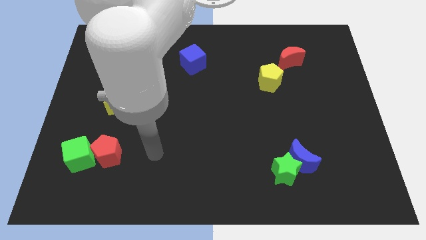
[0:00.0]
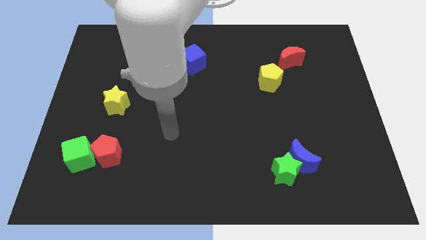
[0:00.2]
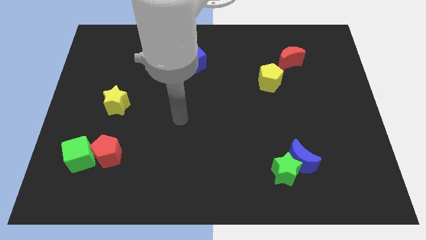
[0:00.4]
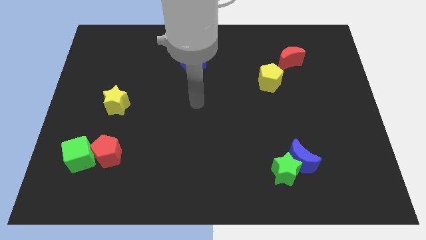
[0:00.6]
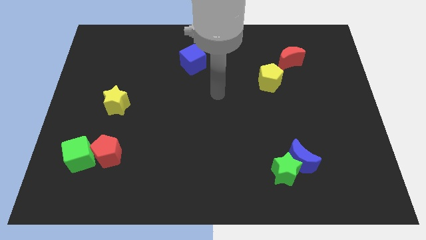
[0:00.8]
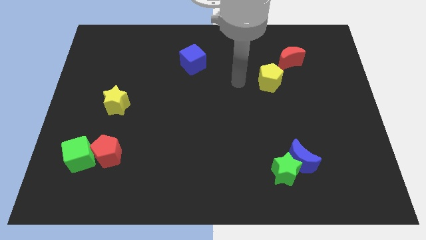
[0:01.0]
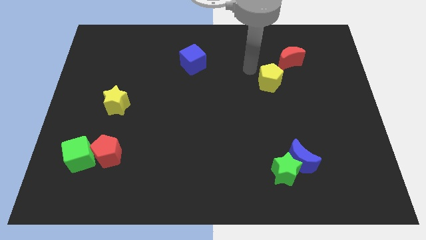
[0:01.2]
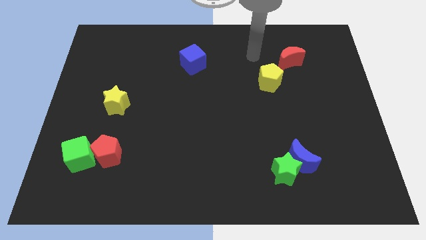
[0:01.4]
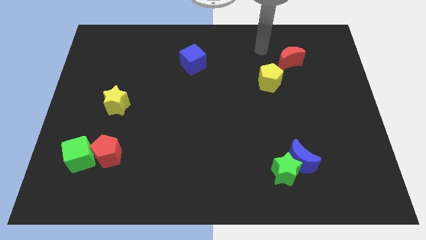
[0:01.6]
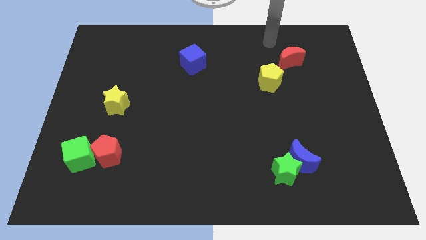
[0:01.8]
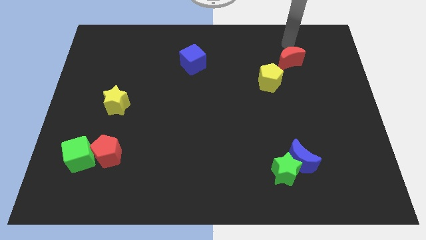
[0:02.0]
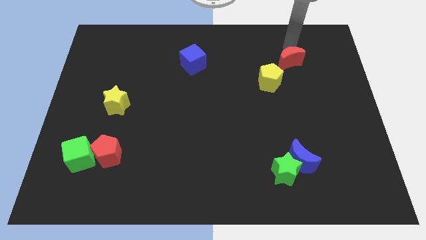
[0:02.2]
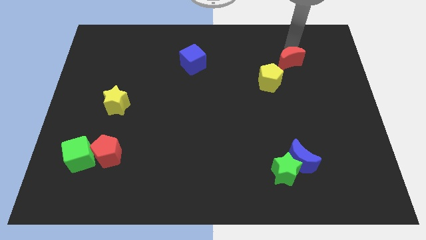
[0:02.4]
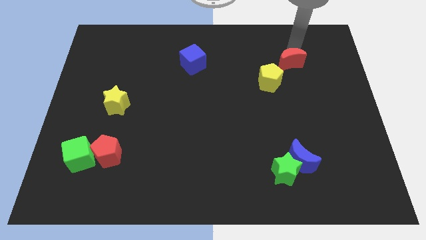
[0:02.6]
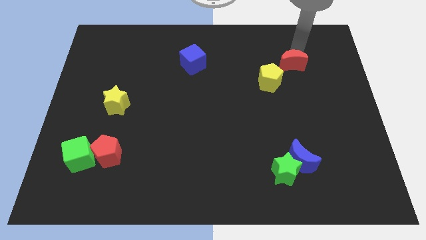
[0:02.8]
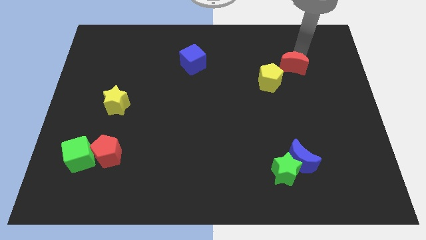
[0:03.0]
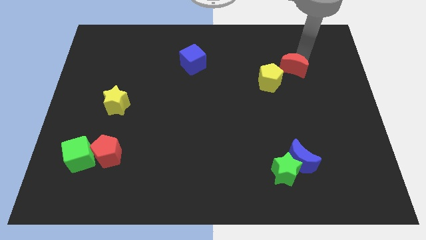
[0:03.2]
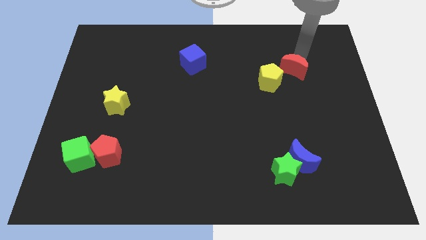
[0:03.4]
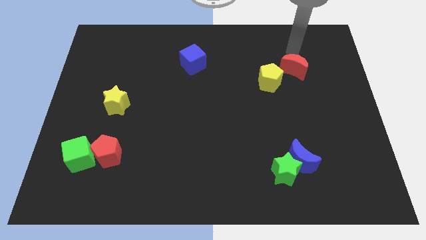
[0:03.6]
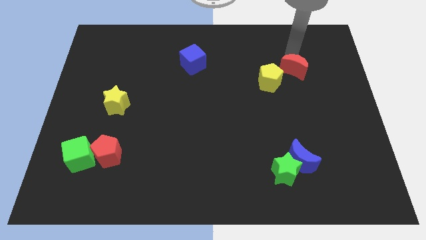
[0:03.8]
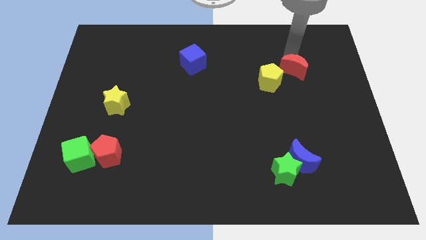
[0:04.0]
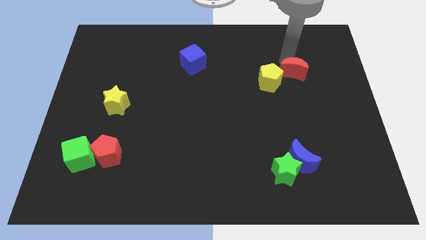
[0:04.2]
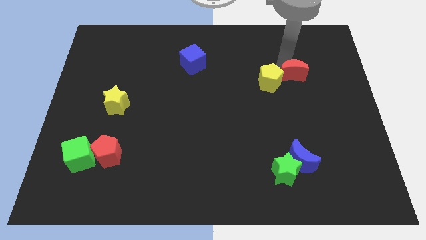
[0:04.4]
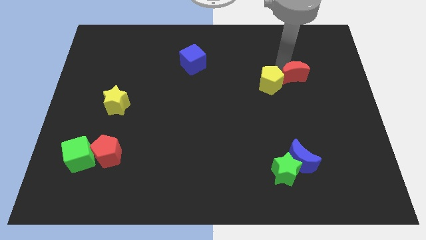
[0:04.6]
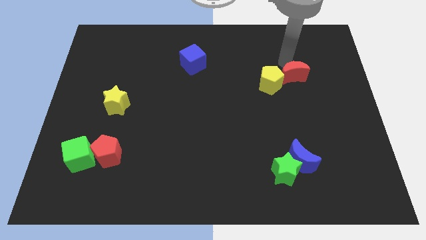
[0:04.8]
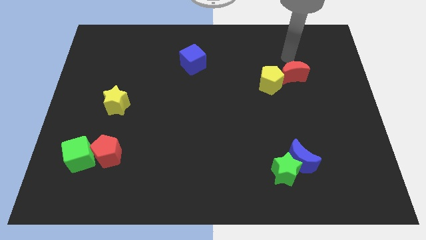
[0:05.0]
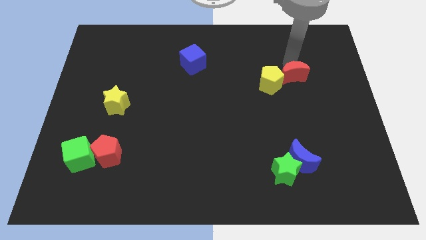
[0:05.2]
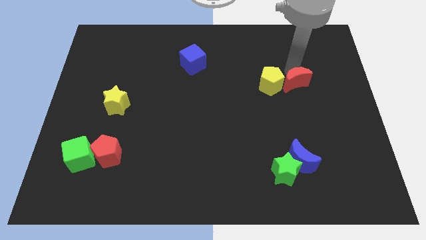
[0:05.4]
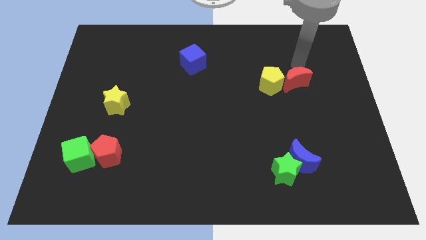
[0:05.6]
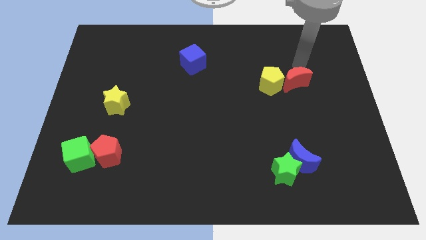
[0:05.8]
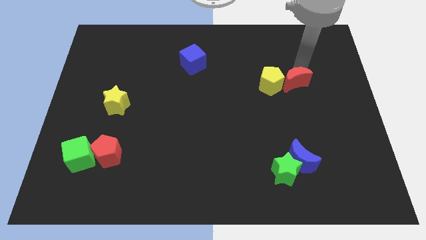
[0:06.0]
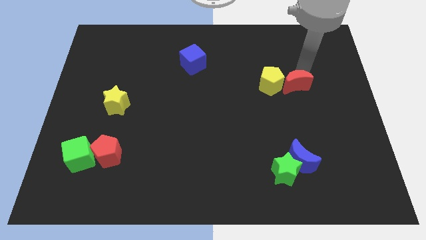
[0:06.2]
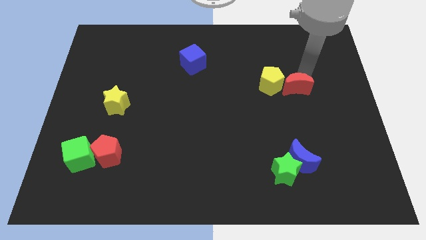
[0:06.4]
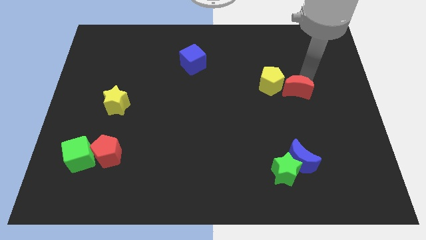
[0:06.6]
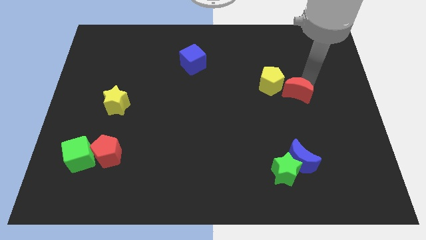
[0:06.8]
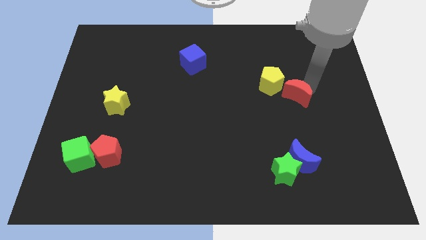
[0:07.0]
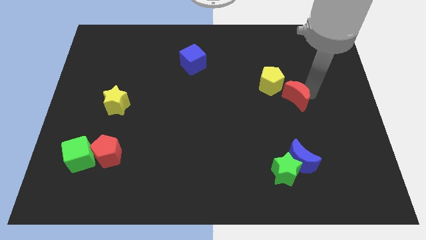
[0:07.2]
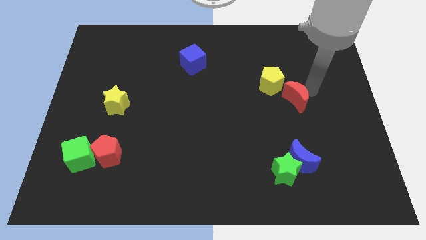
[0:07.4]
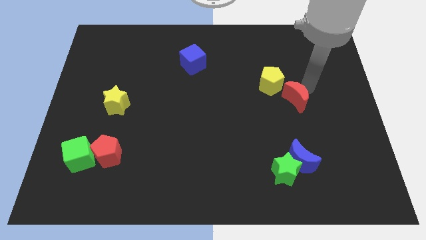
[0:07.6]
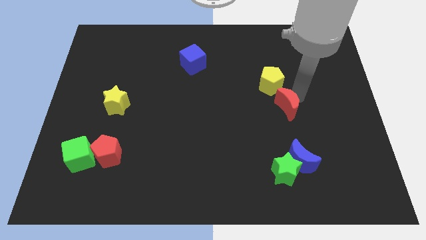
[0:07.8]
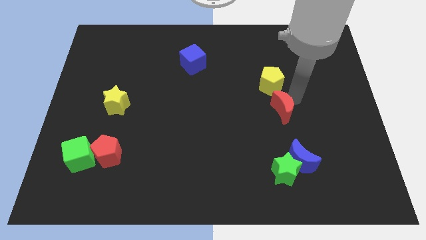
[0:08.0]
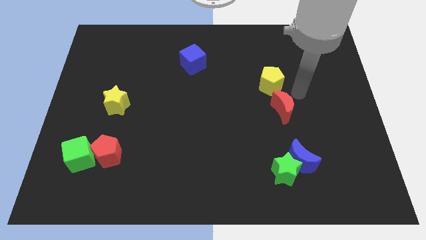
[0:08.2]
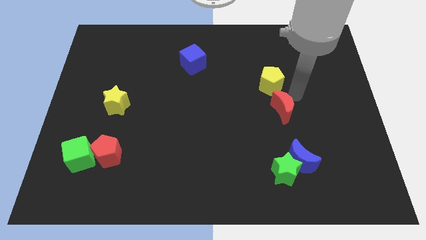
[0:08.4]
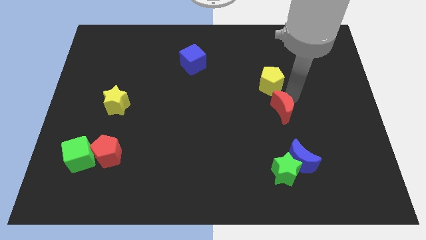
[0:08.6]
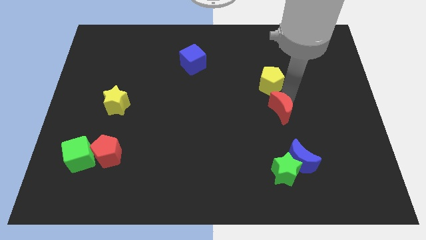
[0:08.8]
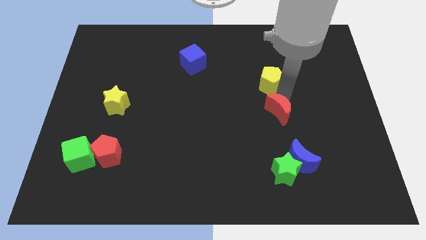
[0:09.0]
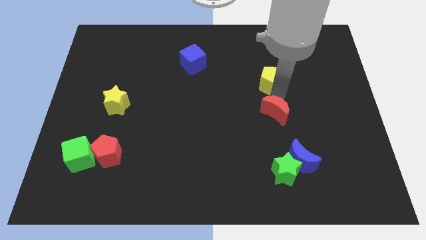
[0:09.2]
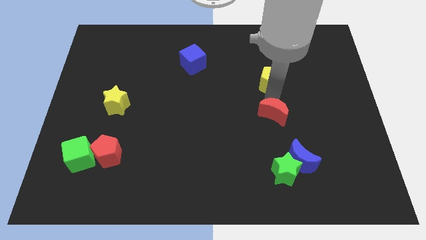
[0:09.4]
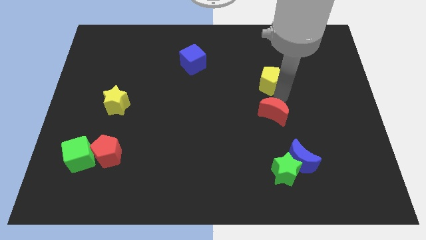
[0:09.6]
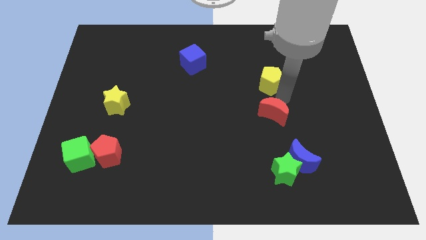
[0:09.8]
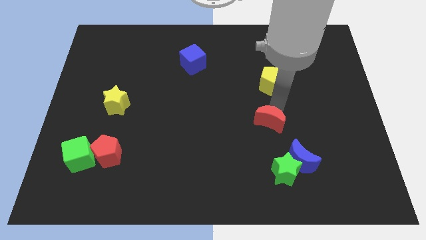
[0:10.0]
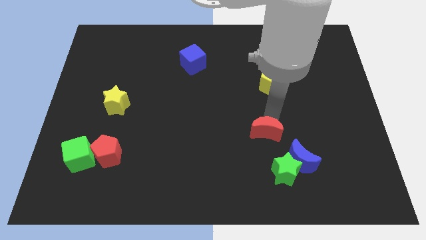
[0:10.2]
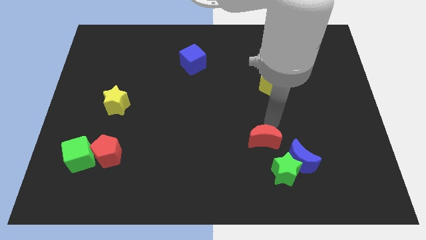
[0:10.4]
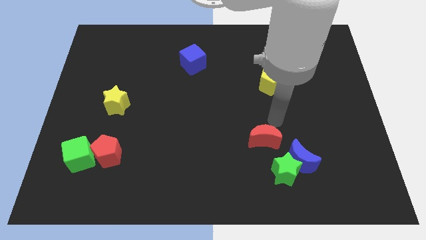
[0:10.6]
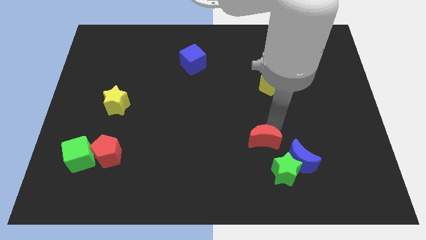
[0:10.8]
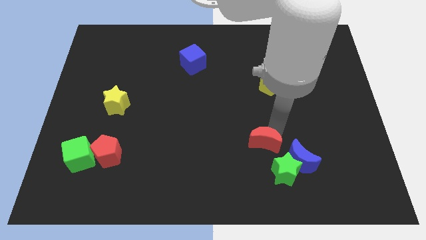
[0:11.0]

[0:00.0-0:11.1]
move the red moon to the left side of the blue moon
